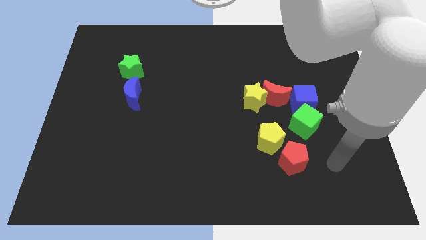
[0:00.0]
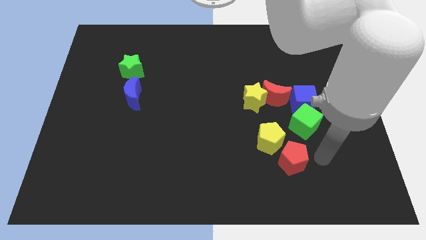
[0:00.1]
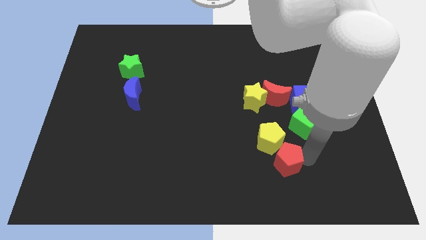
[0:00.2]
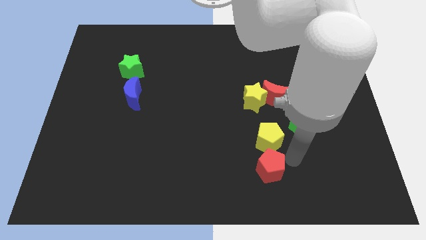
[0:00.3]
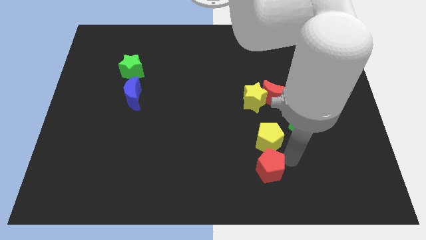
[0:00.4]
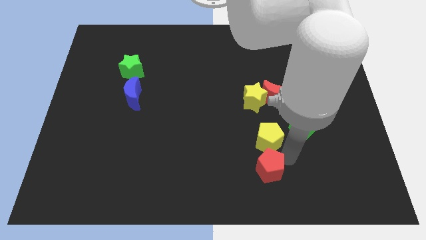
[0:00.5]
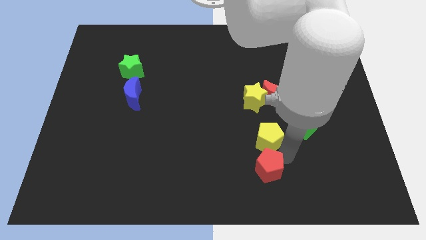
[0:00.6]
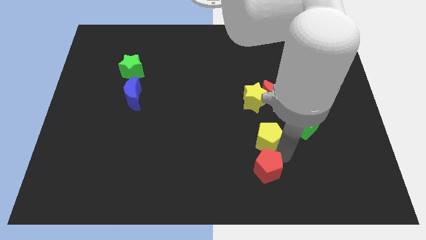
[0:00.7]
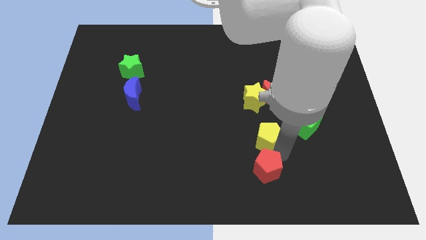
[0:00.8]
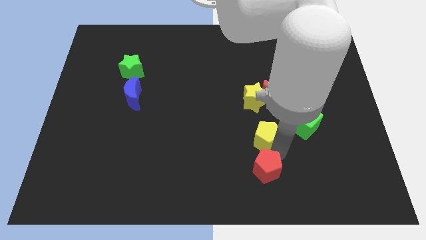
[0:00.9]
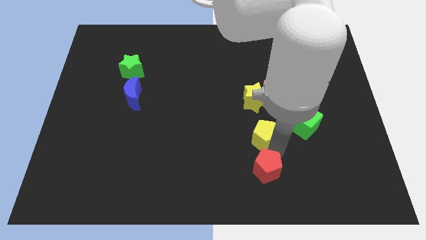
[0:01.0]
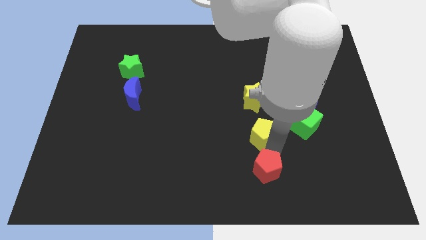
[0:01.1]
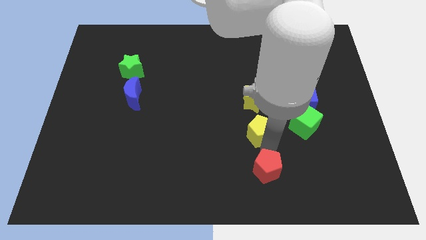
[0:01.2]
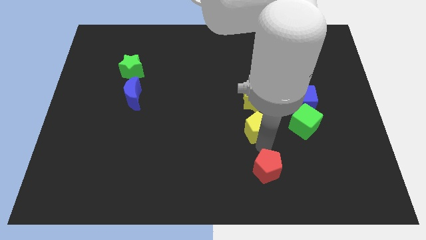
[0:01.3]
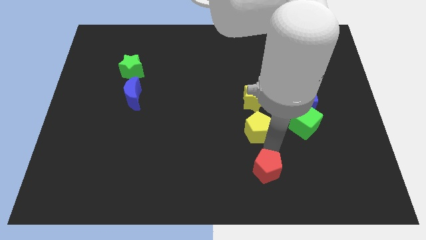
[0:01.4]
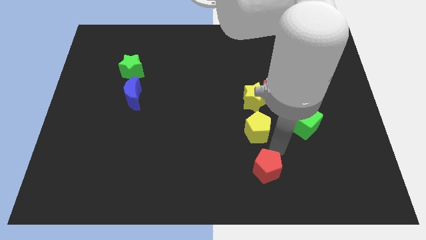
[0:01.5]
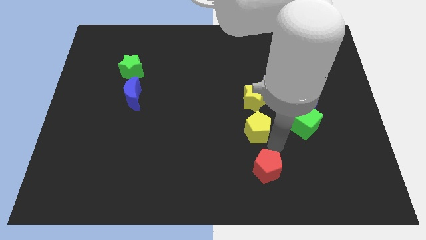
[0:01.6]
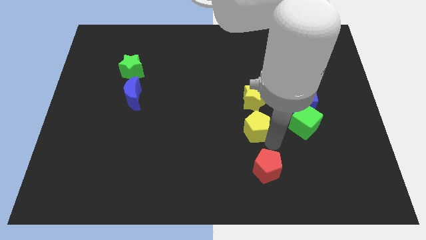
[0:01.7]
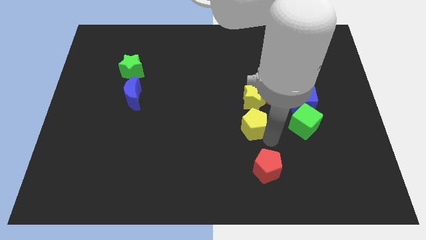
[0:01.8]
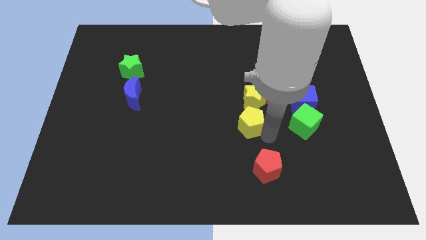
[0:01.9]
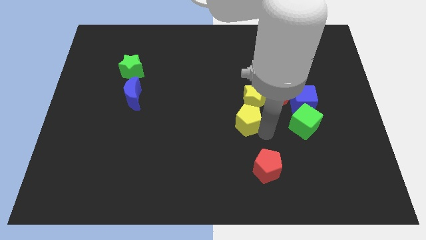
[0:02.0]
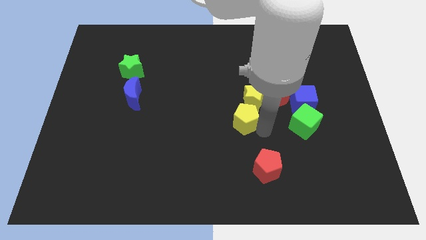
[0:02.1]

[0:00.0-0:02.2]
slide the yellow pentagon up and to the left a bit

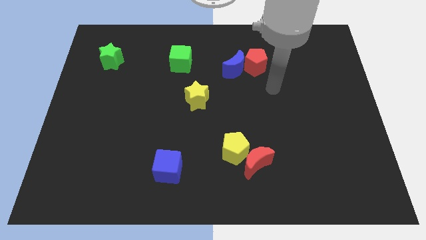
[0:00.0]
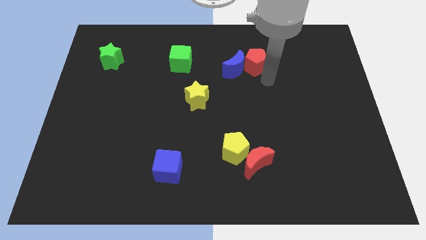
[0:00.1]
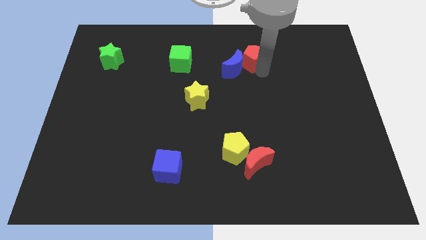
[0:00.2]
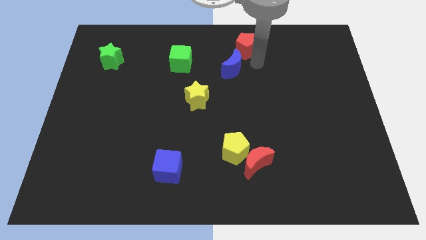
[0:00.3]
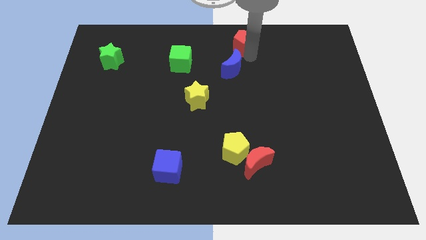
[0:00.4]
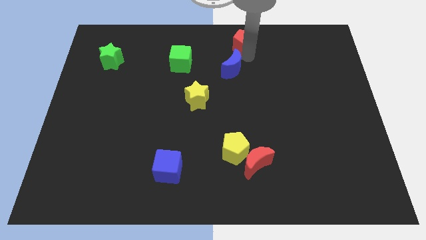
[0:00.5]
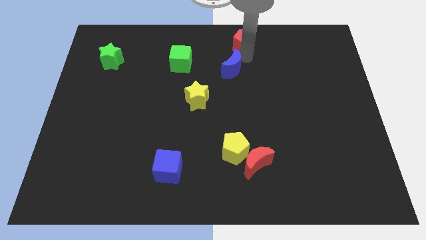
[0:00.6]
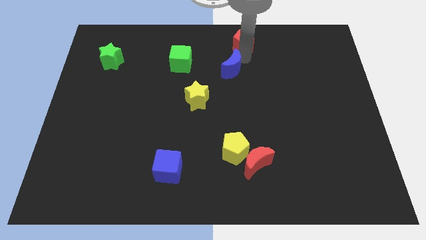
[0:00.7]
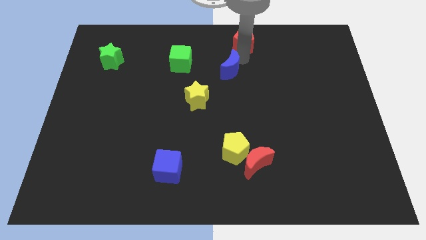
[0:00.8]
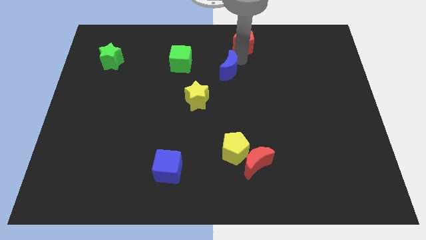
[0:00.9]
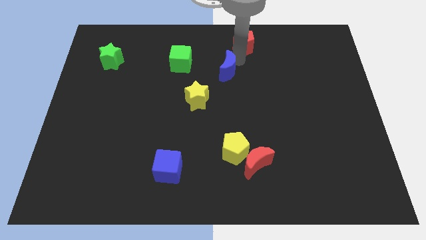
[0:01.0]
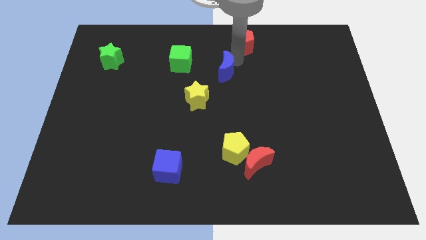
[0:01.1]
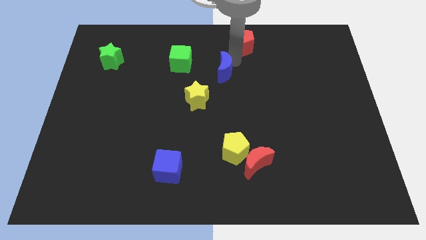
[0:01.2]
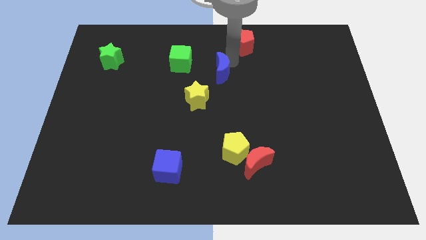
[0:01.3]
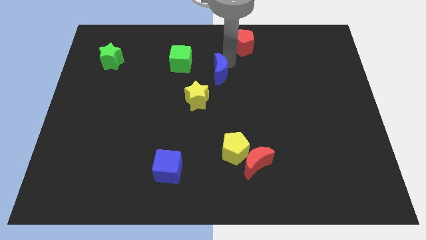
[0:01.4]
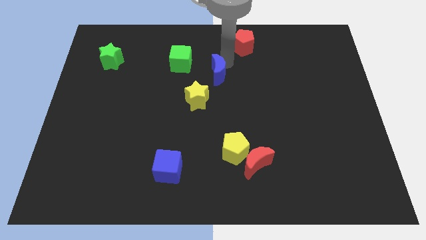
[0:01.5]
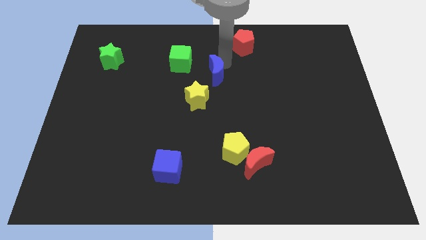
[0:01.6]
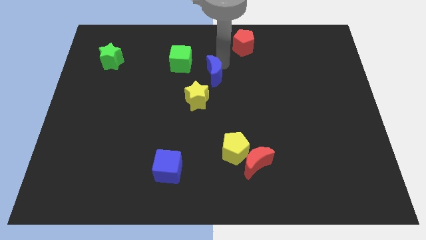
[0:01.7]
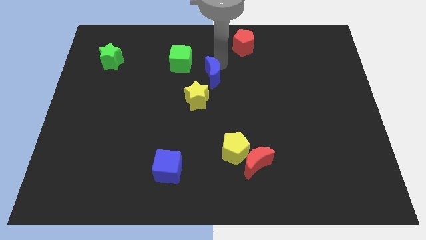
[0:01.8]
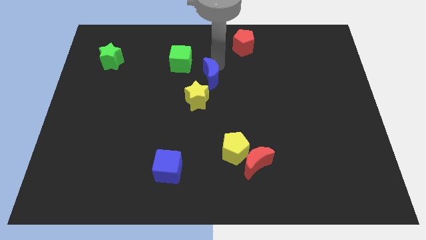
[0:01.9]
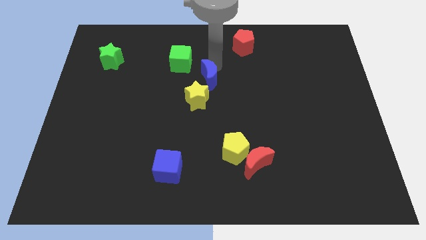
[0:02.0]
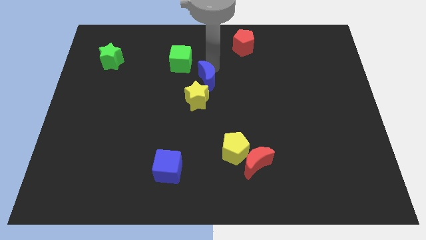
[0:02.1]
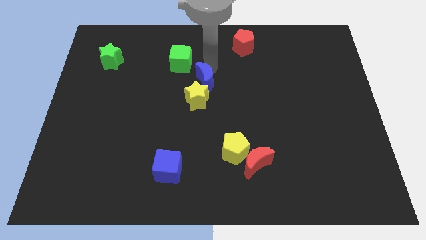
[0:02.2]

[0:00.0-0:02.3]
push the blue moon a bit to the left

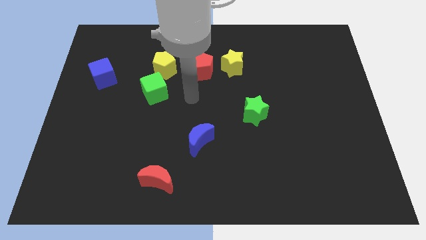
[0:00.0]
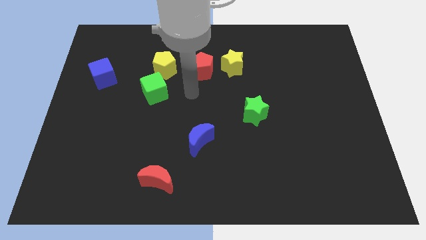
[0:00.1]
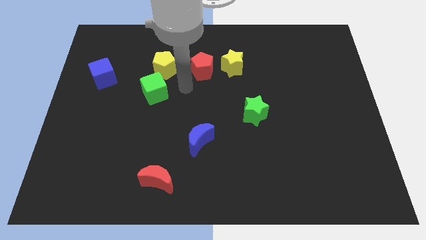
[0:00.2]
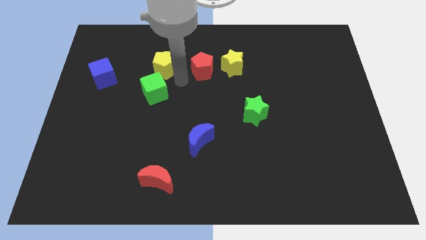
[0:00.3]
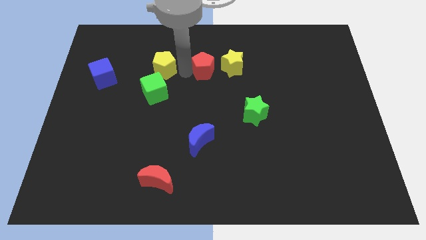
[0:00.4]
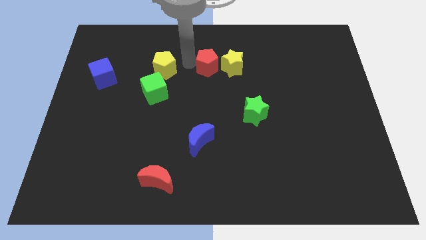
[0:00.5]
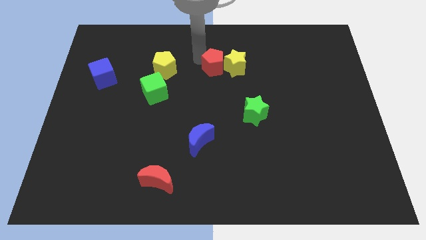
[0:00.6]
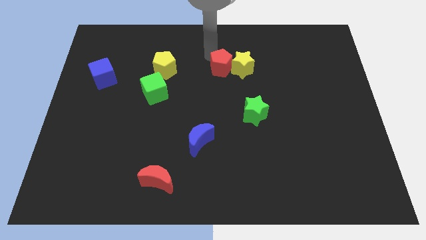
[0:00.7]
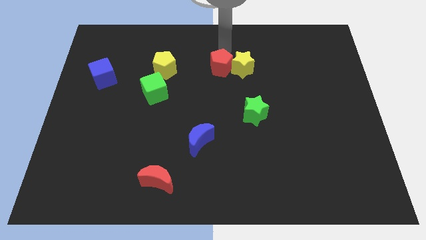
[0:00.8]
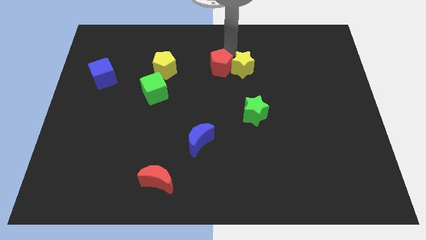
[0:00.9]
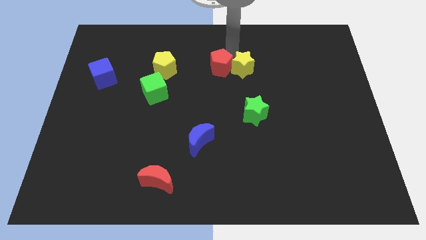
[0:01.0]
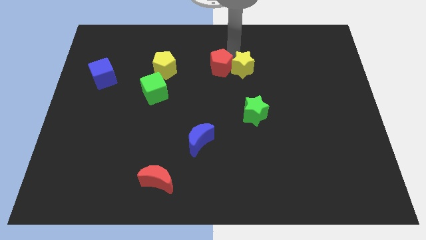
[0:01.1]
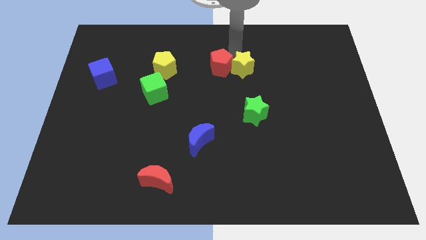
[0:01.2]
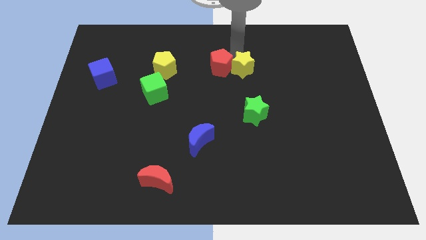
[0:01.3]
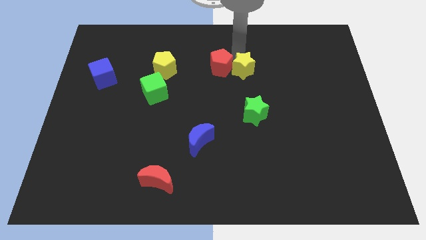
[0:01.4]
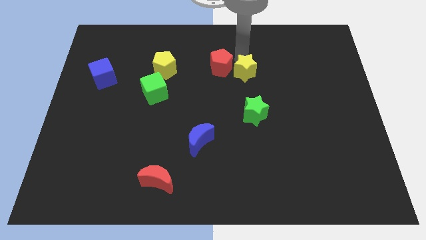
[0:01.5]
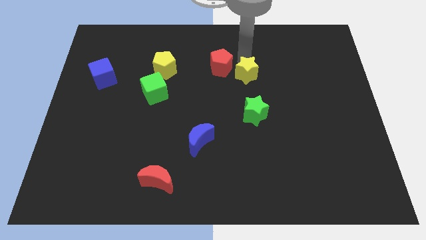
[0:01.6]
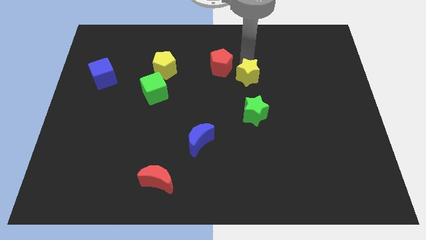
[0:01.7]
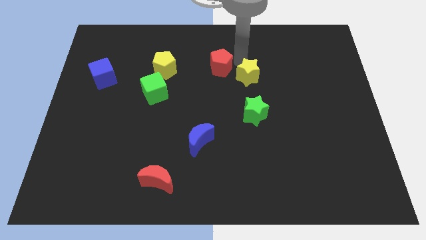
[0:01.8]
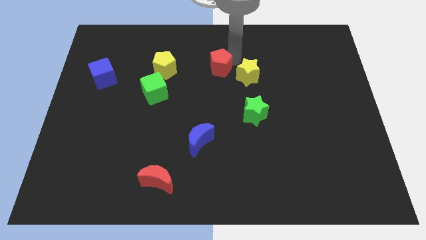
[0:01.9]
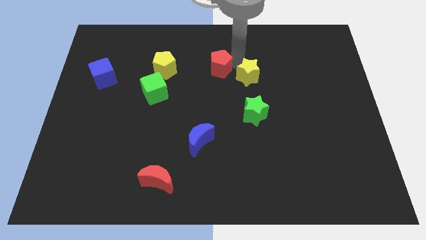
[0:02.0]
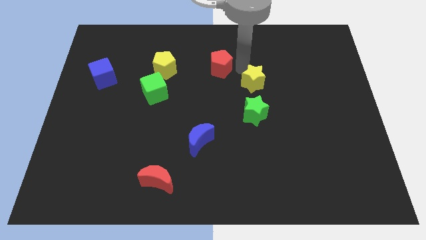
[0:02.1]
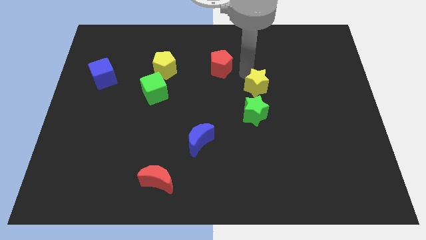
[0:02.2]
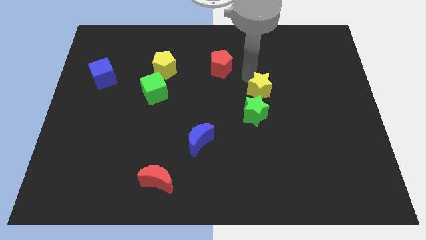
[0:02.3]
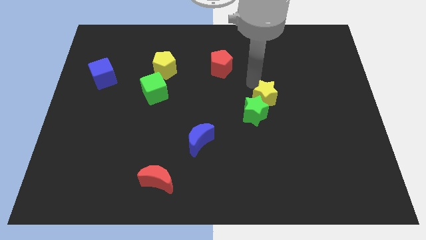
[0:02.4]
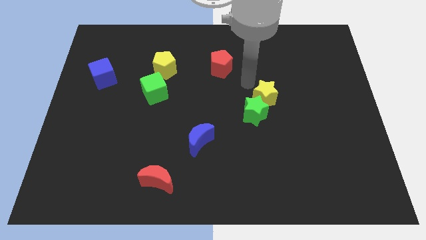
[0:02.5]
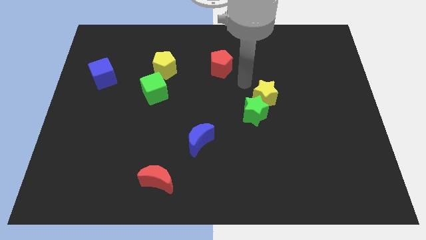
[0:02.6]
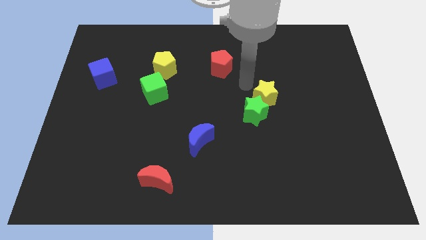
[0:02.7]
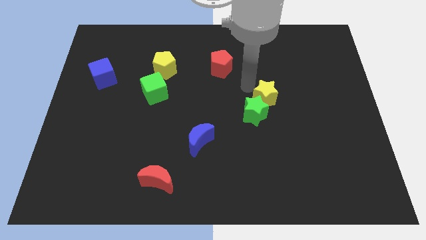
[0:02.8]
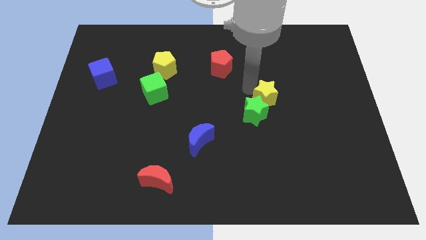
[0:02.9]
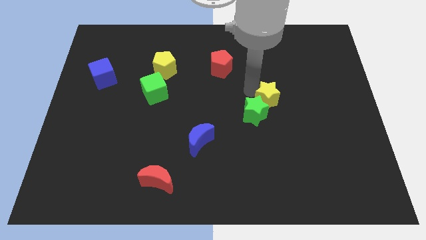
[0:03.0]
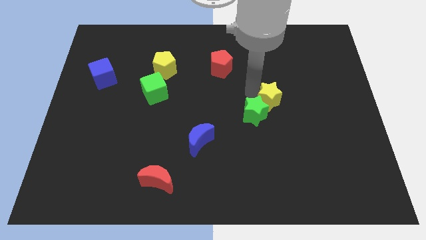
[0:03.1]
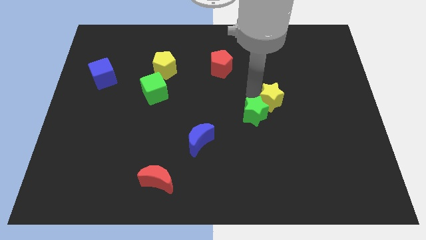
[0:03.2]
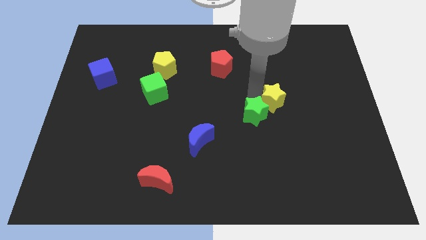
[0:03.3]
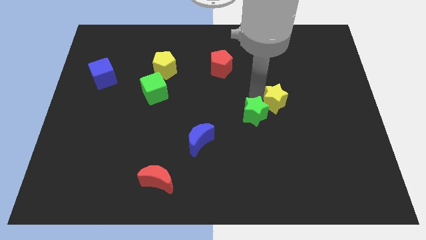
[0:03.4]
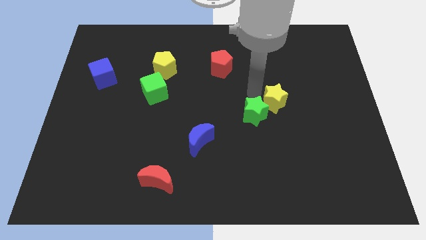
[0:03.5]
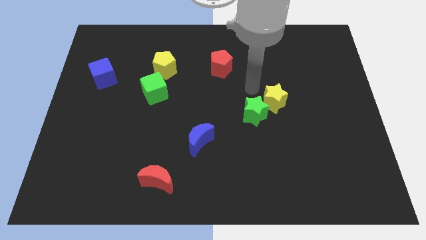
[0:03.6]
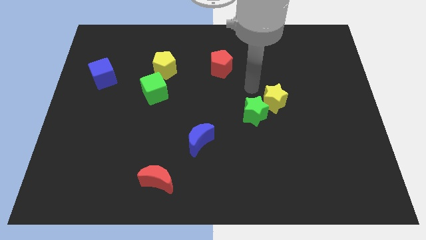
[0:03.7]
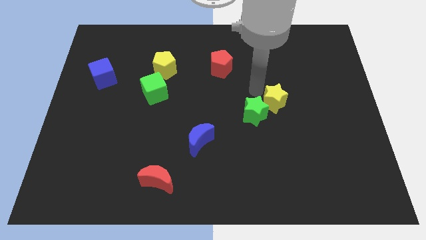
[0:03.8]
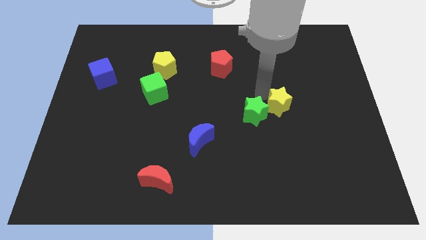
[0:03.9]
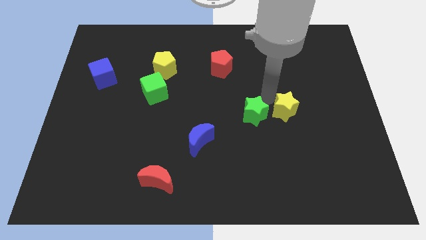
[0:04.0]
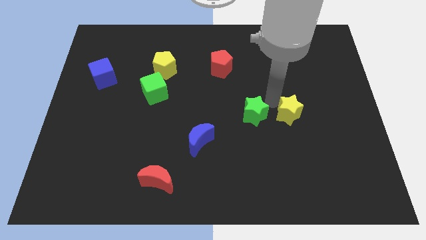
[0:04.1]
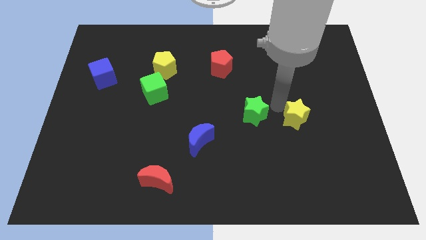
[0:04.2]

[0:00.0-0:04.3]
push the yellow star down and then to the right
